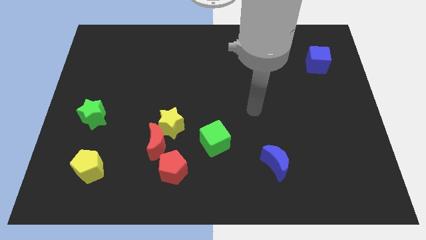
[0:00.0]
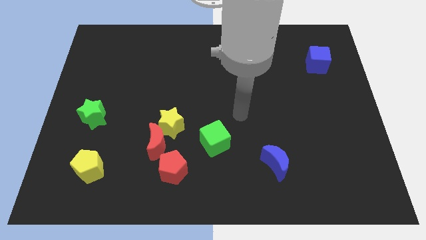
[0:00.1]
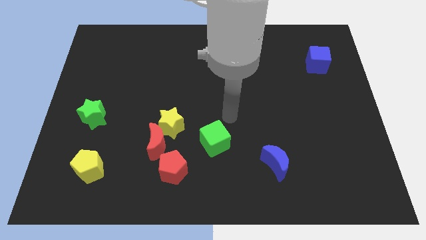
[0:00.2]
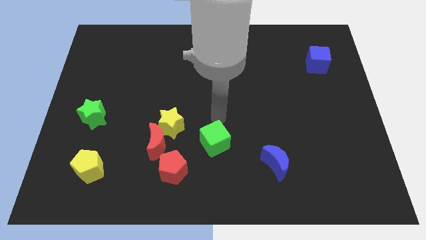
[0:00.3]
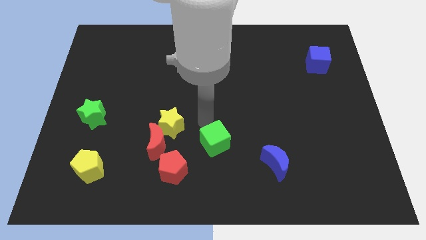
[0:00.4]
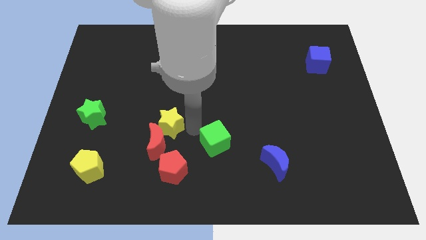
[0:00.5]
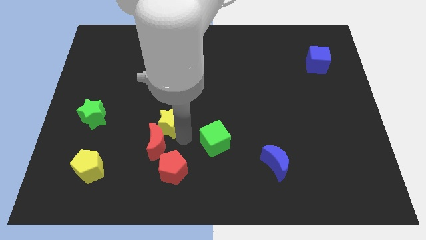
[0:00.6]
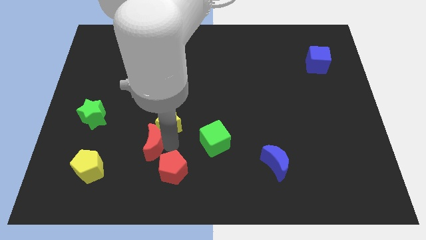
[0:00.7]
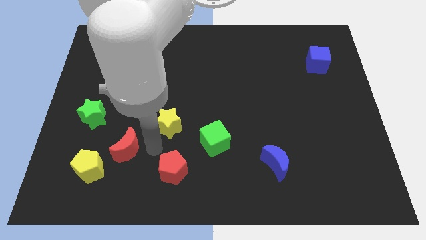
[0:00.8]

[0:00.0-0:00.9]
separate the yellow star from the red moon

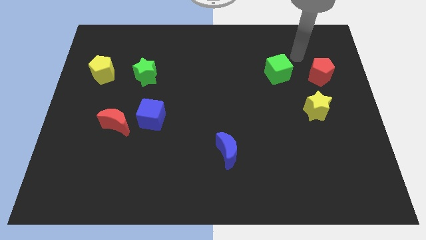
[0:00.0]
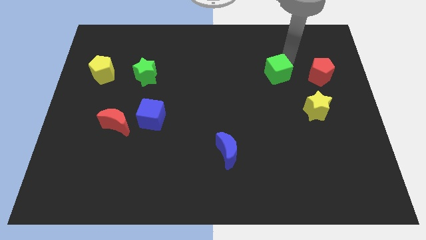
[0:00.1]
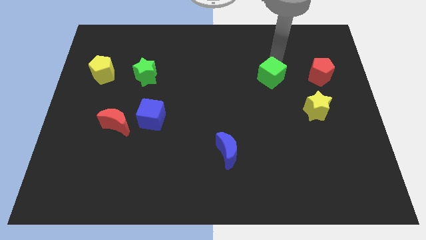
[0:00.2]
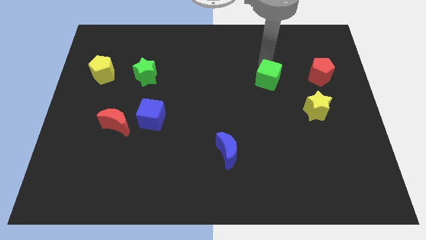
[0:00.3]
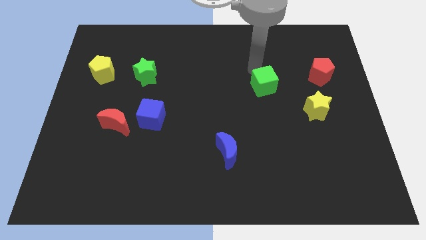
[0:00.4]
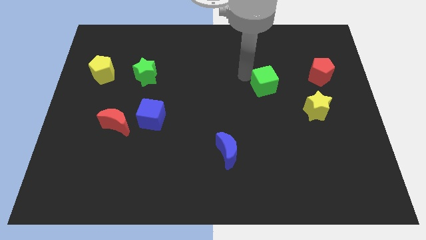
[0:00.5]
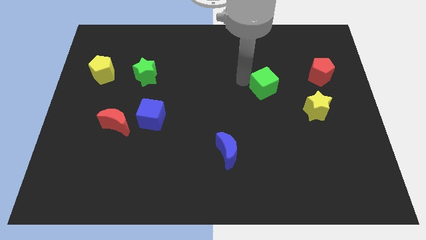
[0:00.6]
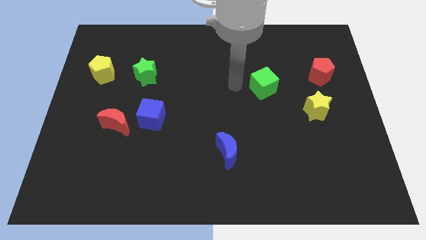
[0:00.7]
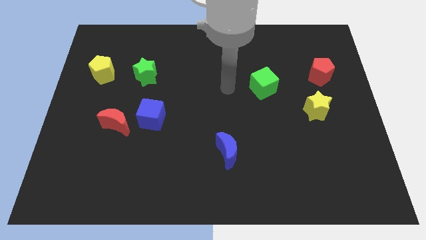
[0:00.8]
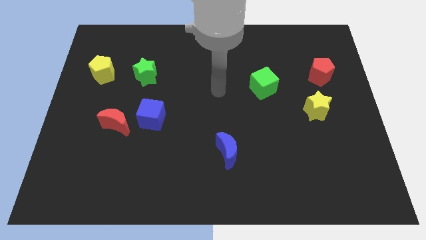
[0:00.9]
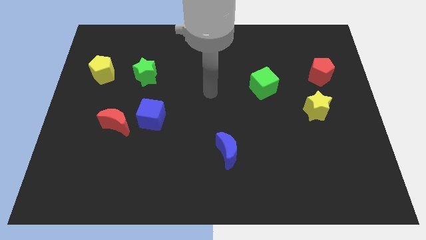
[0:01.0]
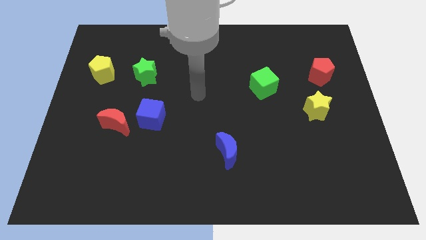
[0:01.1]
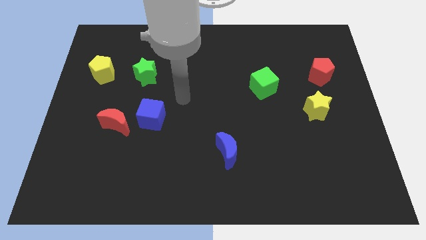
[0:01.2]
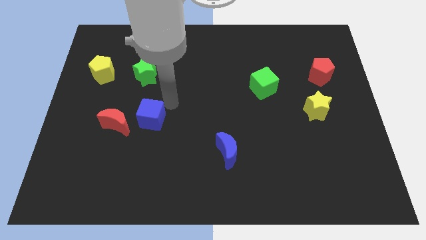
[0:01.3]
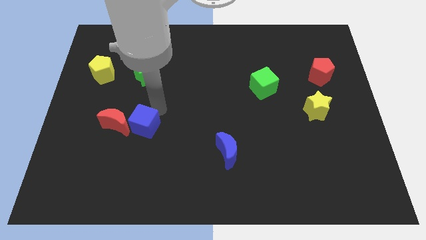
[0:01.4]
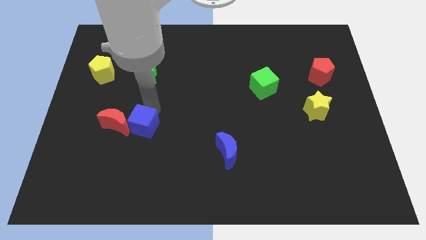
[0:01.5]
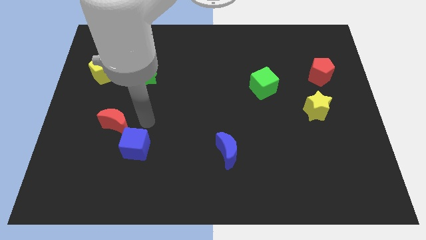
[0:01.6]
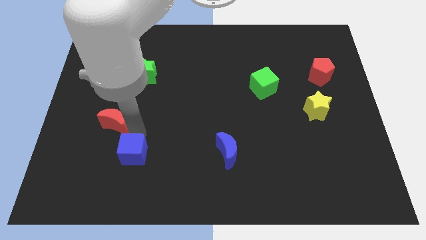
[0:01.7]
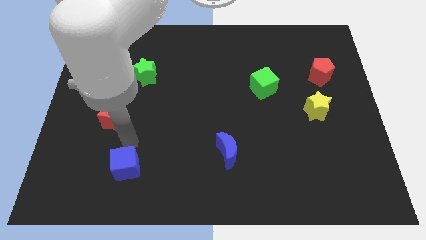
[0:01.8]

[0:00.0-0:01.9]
separate the red moon from the blue cube

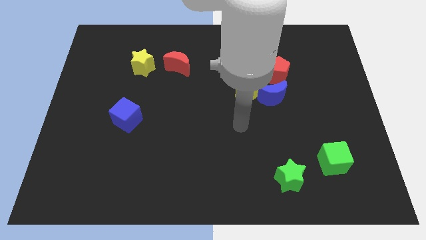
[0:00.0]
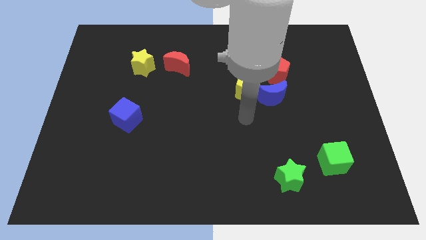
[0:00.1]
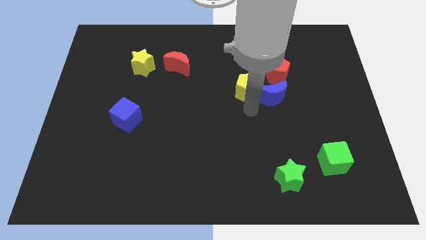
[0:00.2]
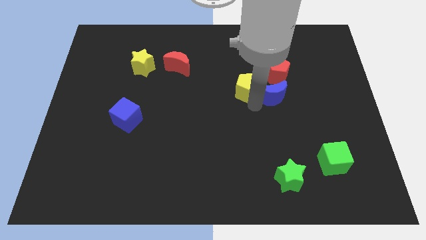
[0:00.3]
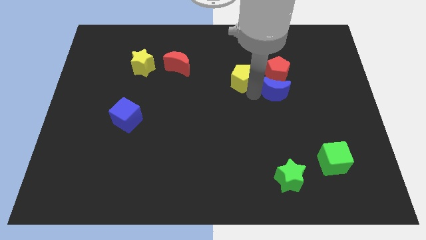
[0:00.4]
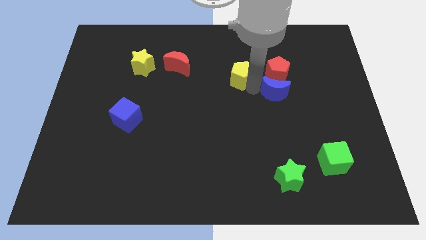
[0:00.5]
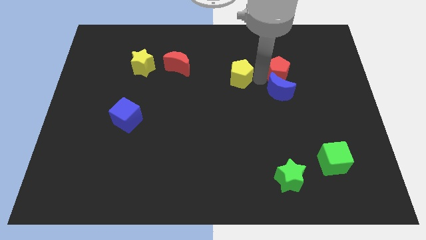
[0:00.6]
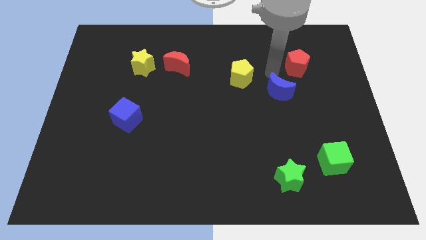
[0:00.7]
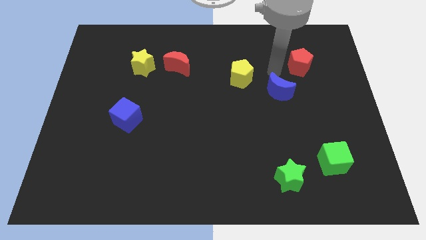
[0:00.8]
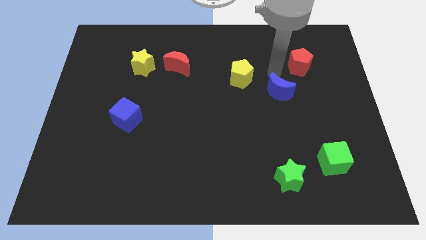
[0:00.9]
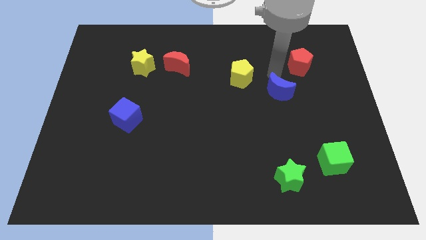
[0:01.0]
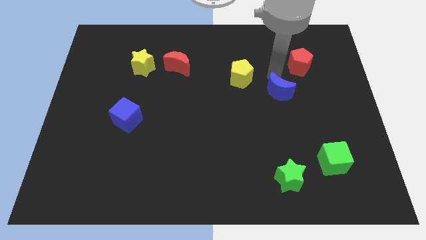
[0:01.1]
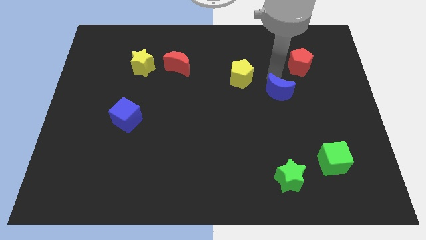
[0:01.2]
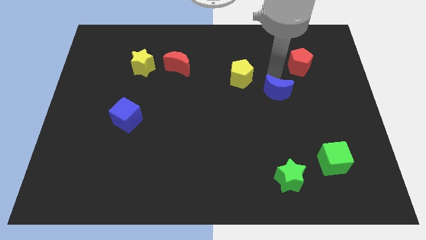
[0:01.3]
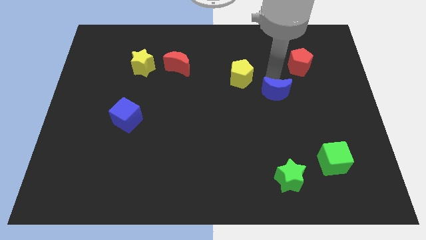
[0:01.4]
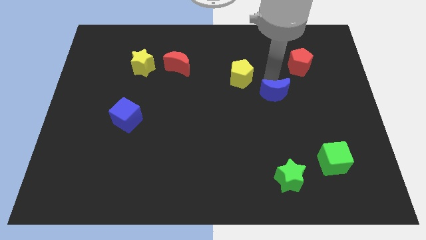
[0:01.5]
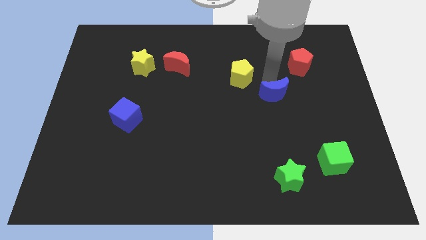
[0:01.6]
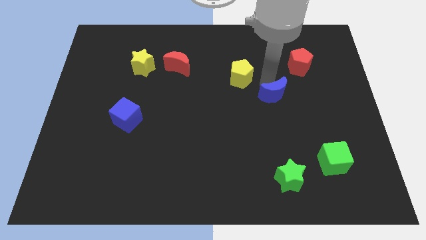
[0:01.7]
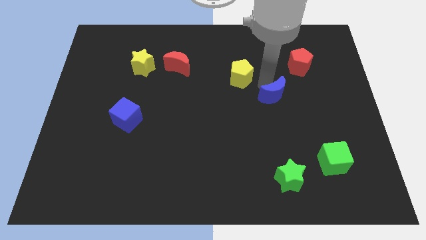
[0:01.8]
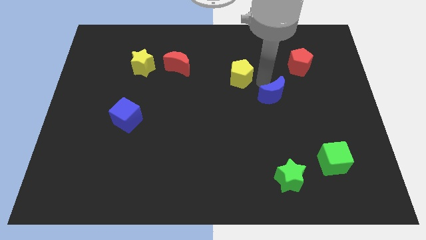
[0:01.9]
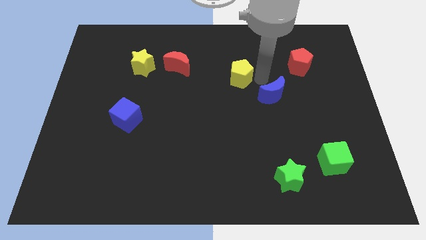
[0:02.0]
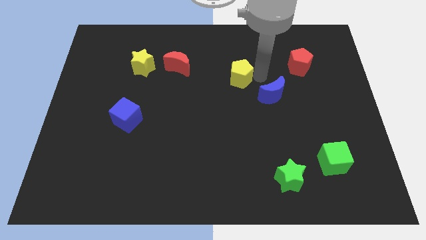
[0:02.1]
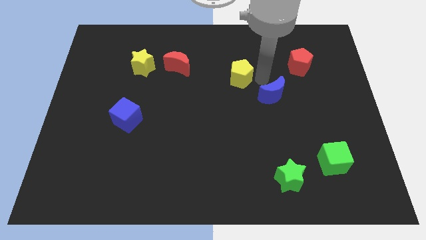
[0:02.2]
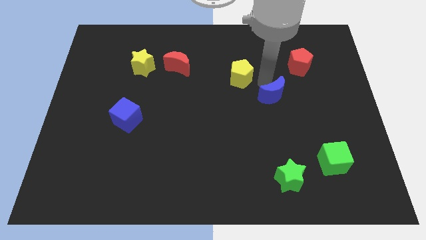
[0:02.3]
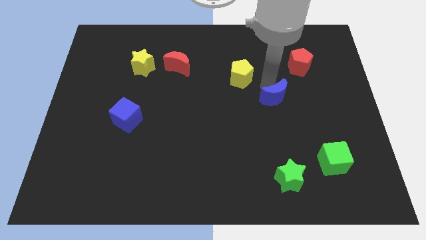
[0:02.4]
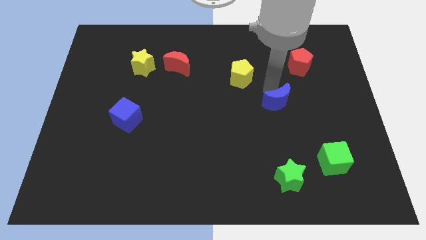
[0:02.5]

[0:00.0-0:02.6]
pull the blue moon apart from the yellow pentagon and red pentagon

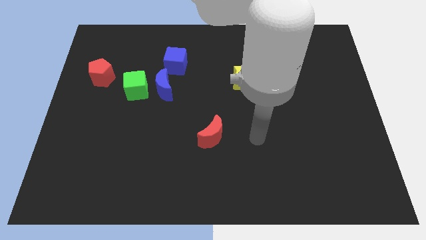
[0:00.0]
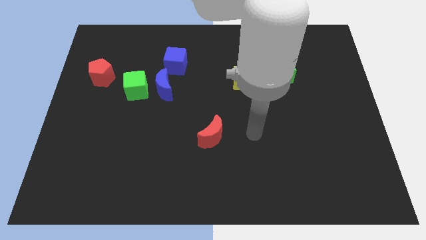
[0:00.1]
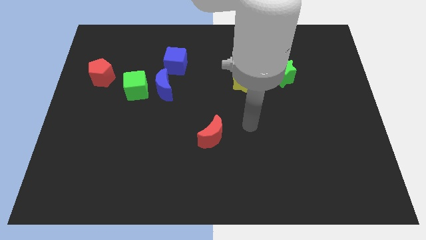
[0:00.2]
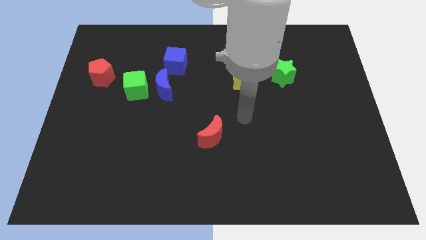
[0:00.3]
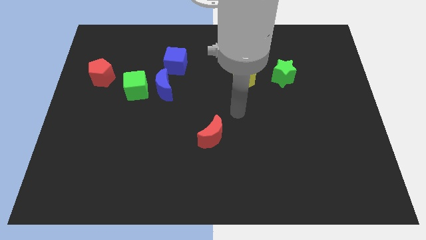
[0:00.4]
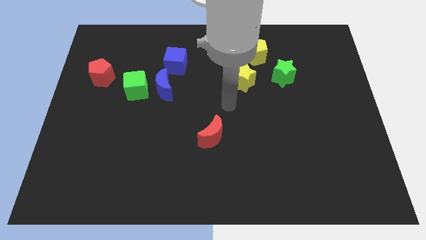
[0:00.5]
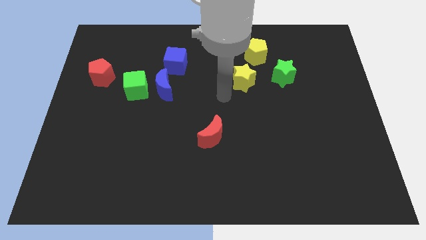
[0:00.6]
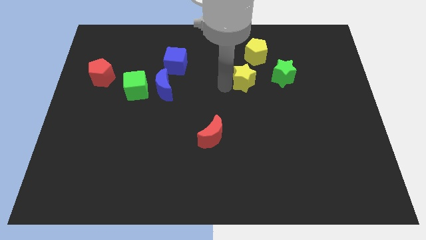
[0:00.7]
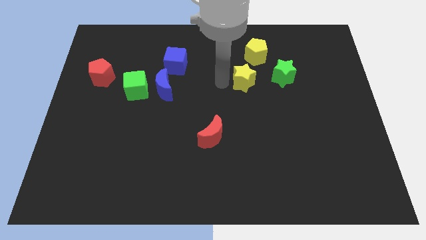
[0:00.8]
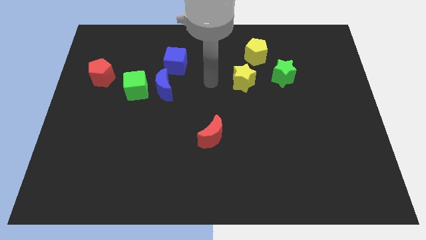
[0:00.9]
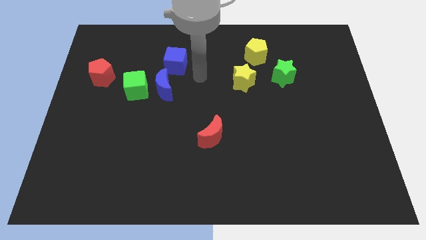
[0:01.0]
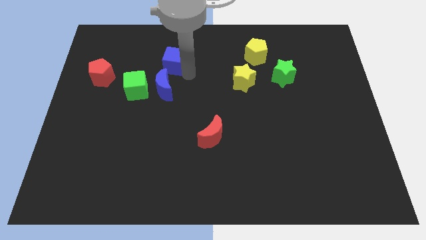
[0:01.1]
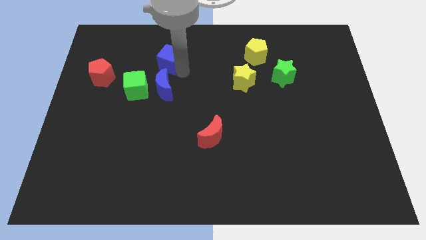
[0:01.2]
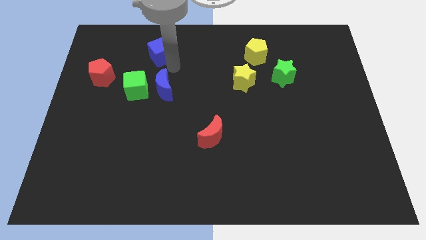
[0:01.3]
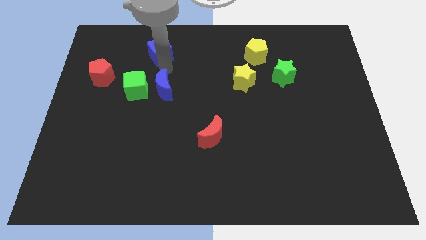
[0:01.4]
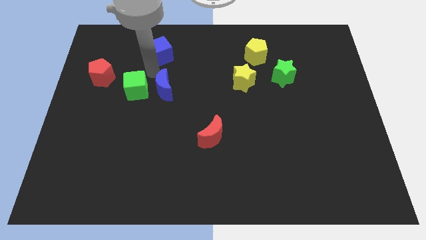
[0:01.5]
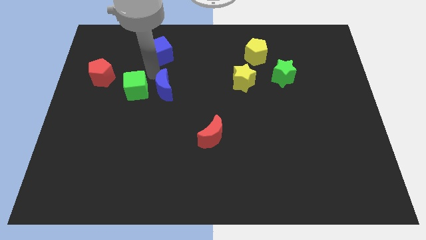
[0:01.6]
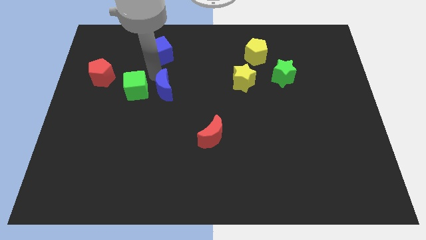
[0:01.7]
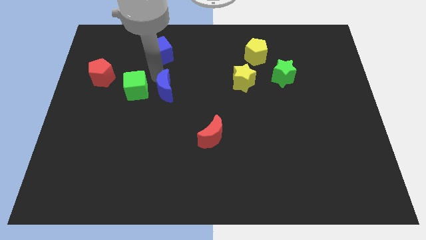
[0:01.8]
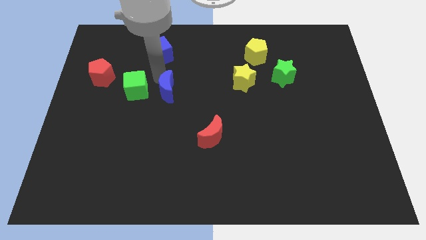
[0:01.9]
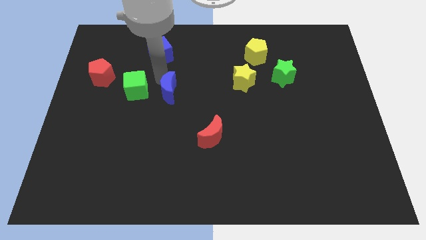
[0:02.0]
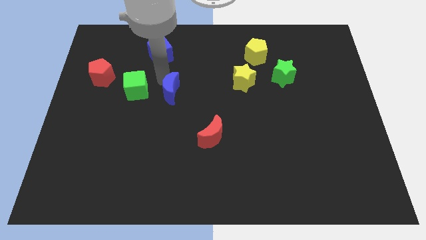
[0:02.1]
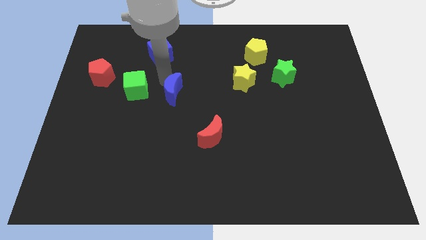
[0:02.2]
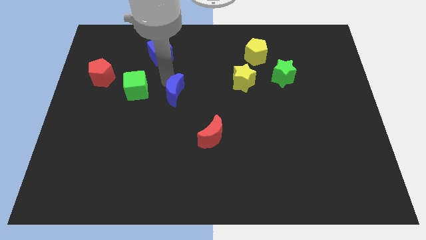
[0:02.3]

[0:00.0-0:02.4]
separate the blue moon from the green cube and blue cube

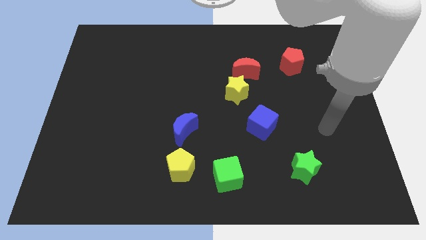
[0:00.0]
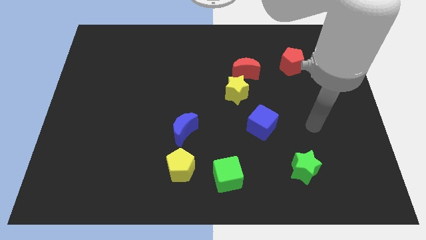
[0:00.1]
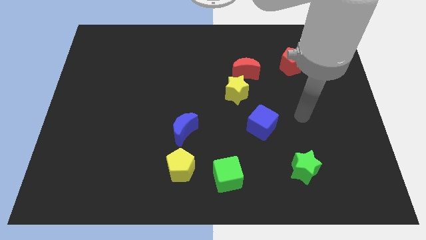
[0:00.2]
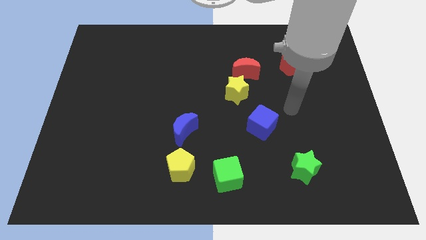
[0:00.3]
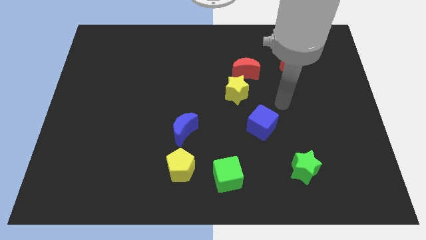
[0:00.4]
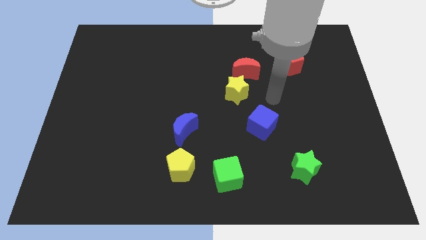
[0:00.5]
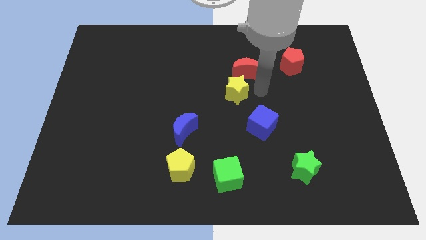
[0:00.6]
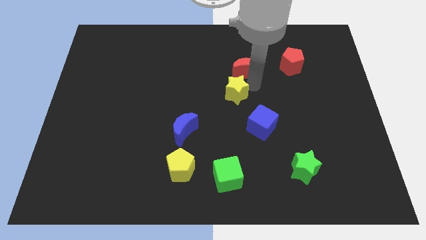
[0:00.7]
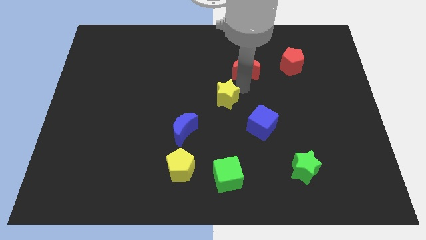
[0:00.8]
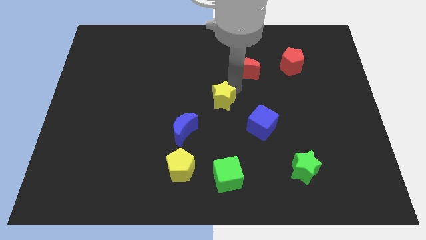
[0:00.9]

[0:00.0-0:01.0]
move the red moon away from the yellow star

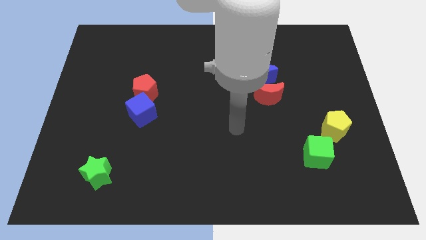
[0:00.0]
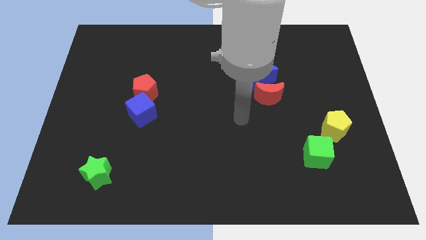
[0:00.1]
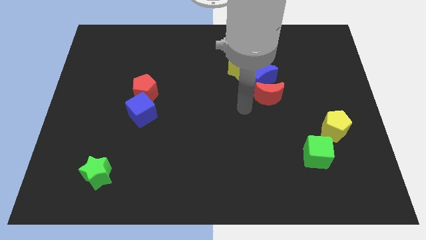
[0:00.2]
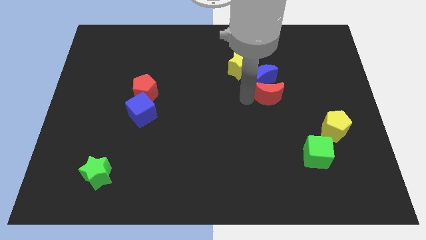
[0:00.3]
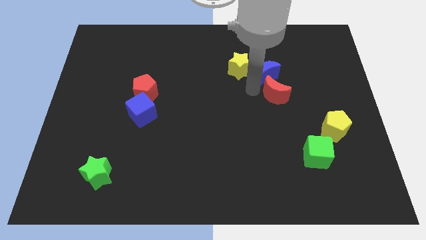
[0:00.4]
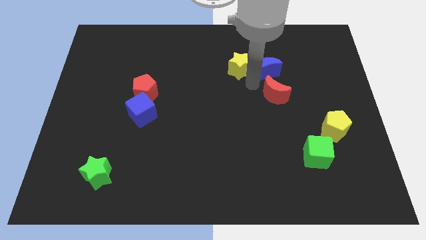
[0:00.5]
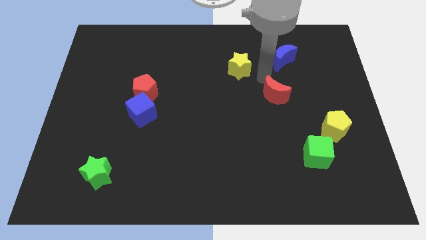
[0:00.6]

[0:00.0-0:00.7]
pull the red moon apart from the blue moon
